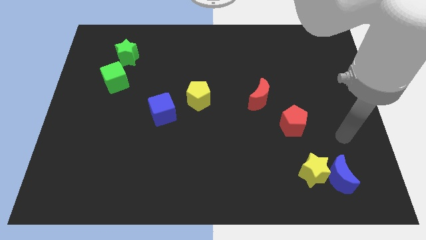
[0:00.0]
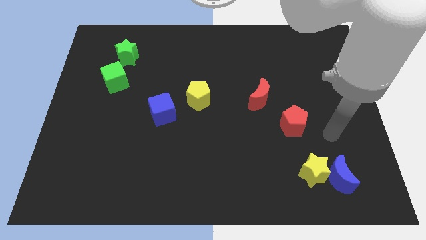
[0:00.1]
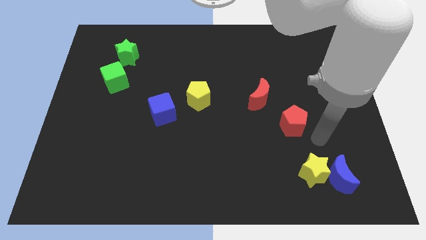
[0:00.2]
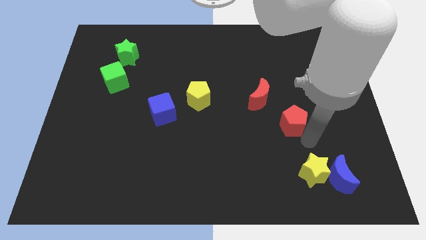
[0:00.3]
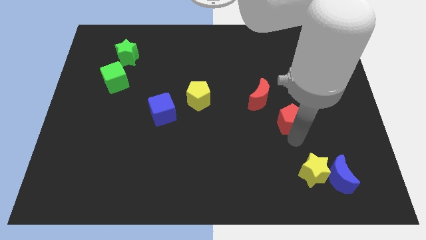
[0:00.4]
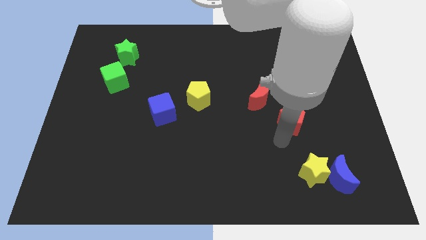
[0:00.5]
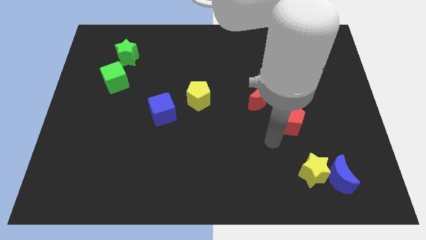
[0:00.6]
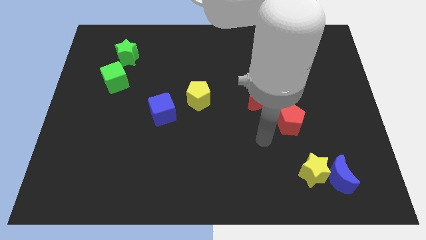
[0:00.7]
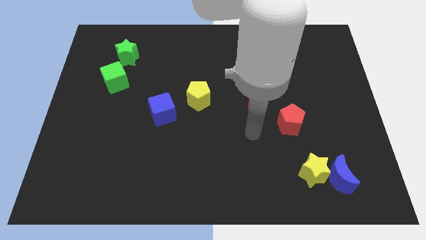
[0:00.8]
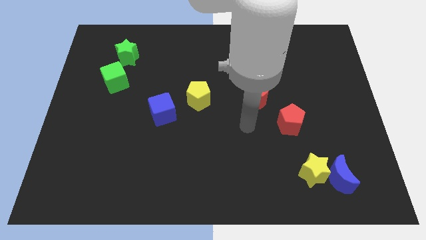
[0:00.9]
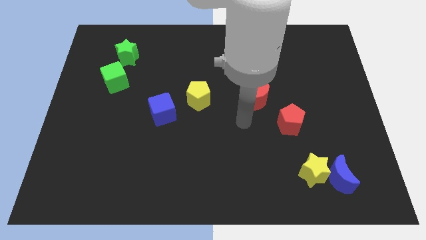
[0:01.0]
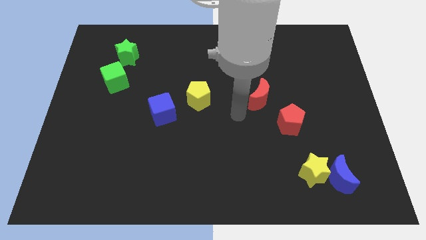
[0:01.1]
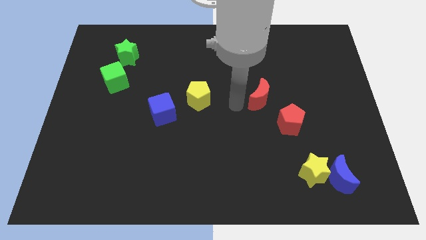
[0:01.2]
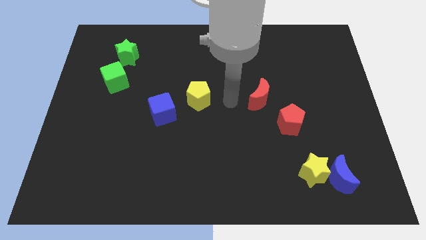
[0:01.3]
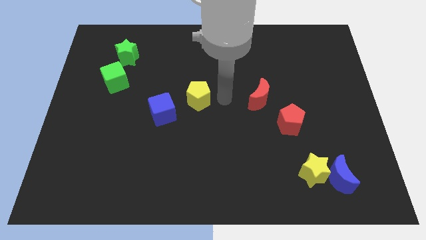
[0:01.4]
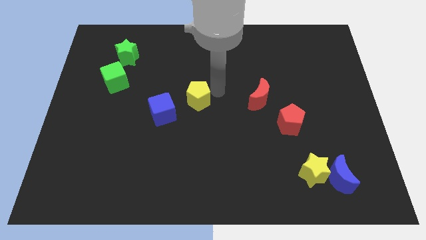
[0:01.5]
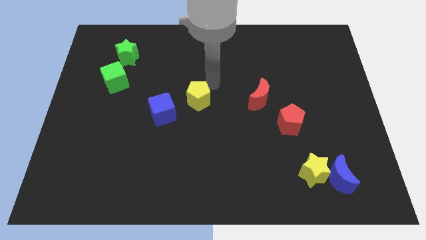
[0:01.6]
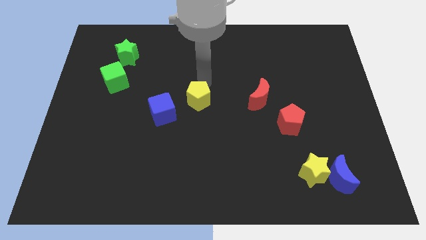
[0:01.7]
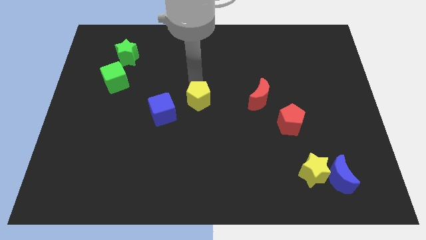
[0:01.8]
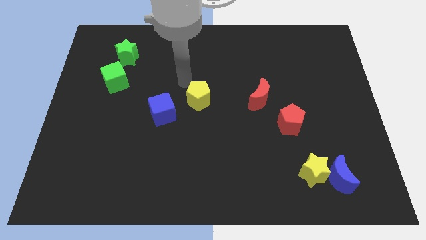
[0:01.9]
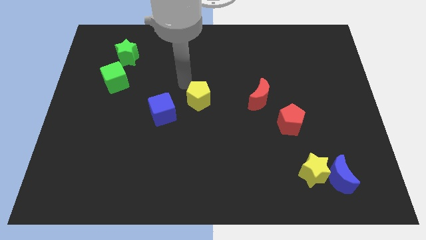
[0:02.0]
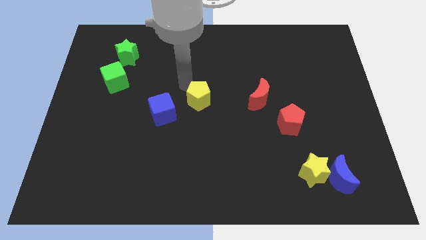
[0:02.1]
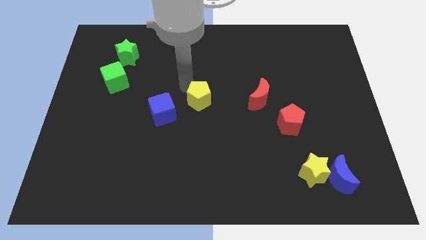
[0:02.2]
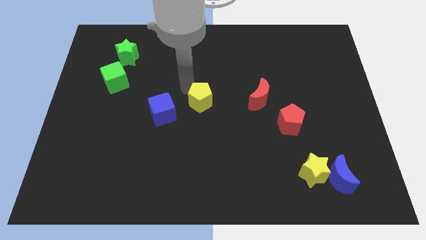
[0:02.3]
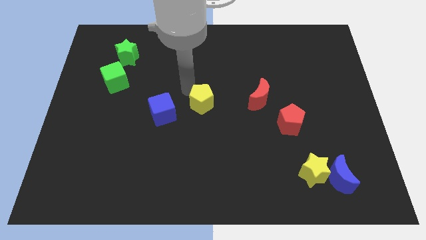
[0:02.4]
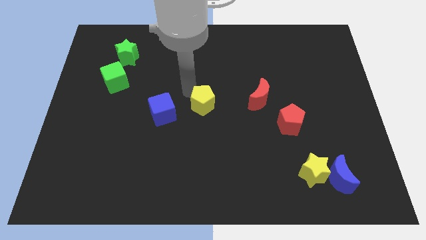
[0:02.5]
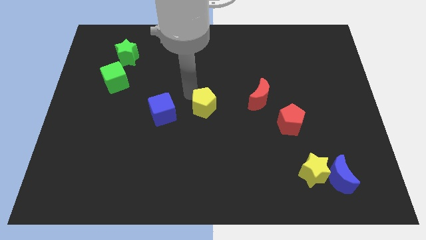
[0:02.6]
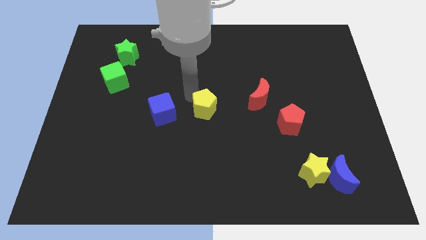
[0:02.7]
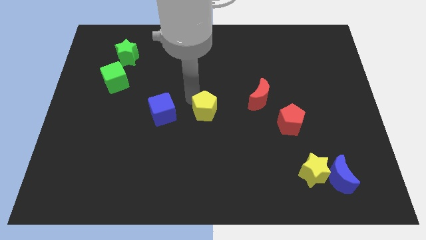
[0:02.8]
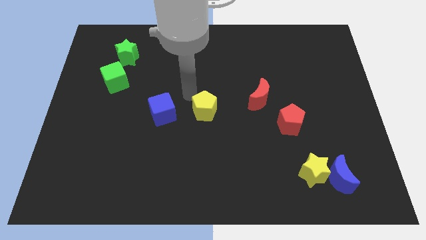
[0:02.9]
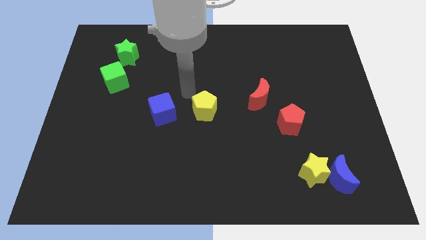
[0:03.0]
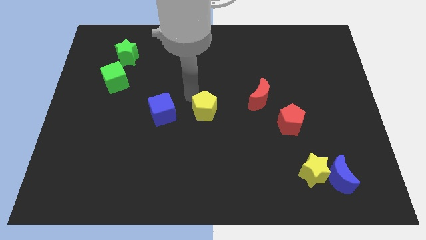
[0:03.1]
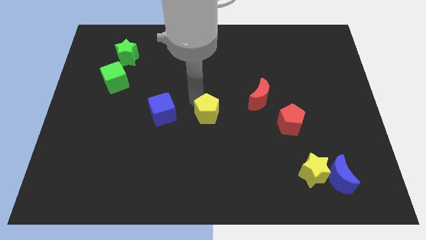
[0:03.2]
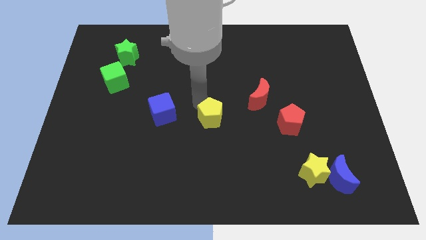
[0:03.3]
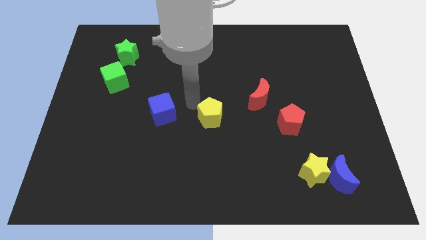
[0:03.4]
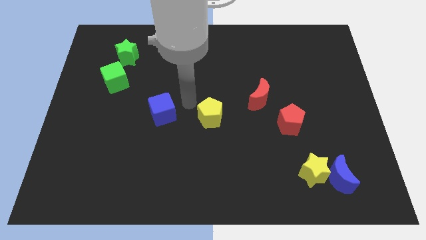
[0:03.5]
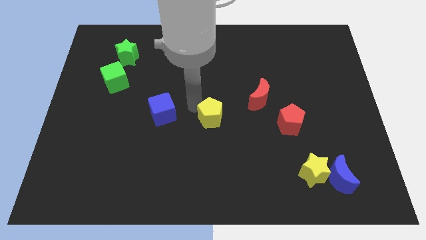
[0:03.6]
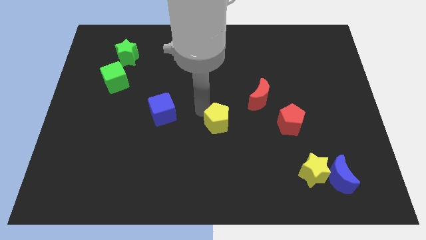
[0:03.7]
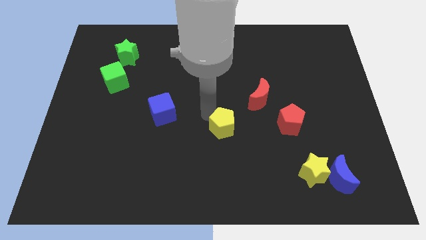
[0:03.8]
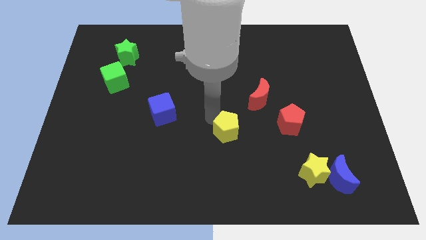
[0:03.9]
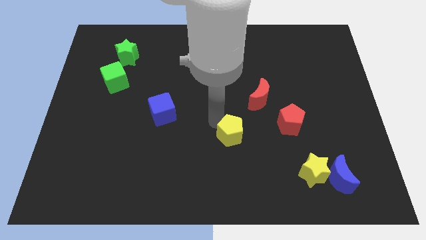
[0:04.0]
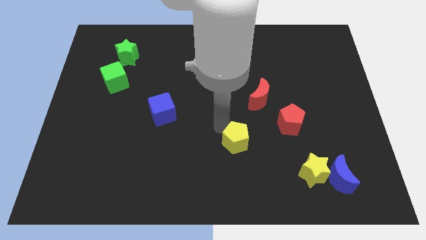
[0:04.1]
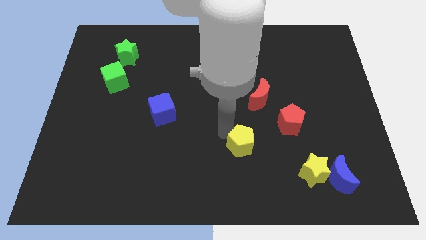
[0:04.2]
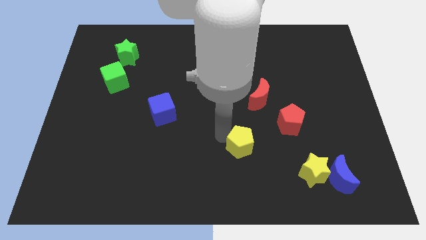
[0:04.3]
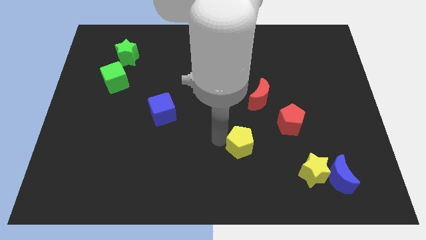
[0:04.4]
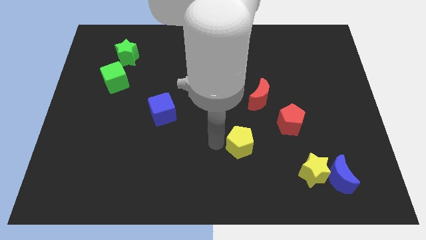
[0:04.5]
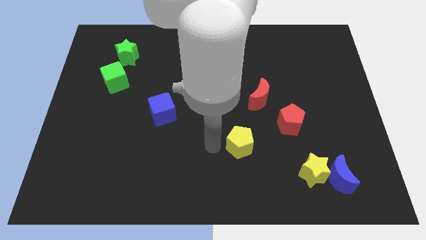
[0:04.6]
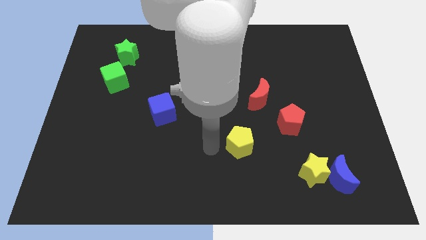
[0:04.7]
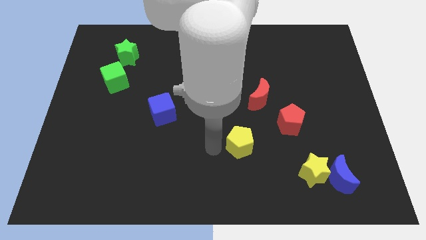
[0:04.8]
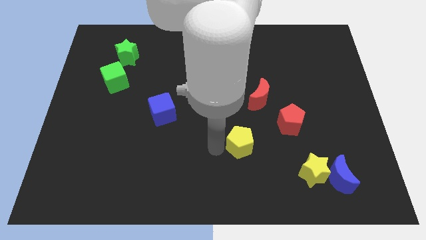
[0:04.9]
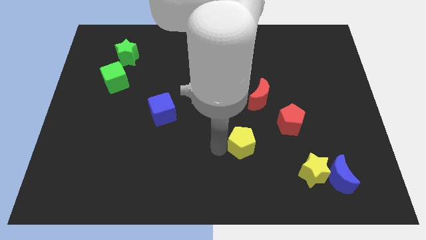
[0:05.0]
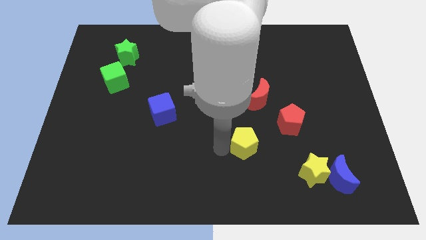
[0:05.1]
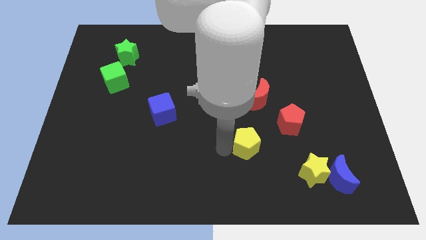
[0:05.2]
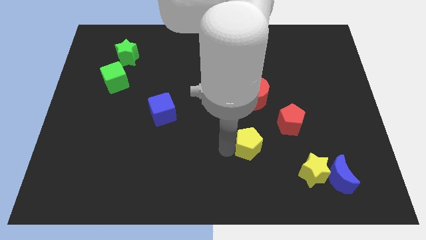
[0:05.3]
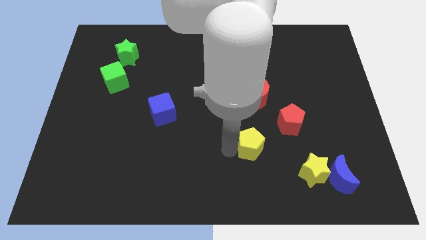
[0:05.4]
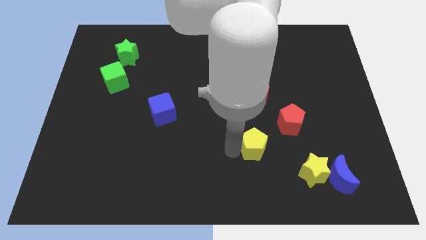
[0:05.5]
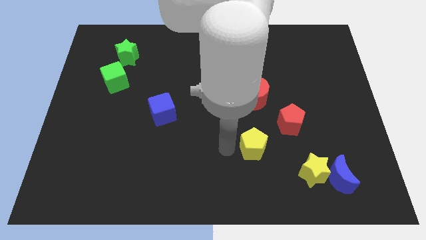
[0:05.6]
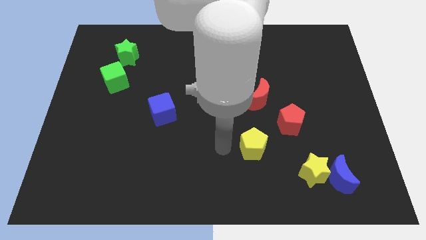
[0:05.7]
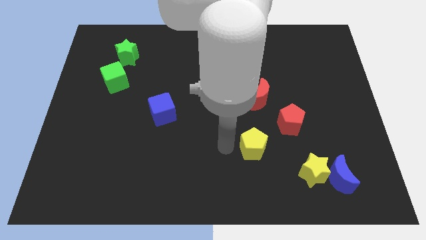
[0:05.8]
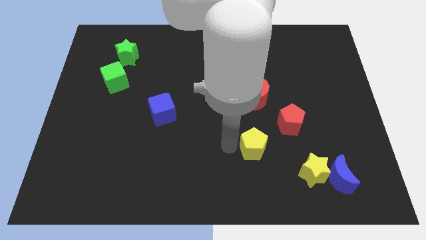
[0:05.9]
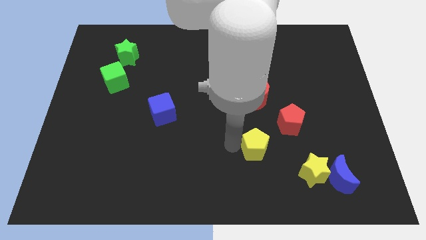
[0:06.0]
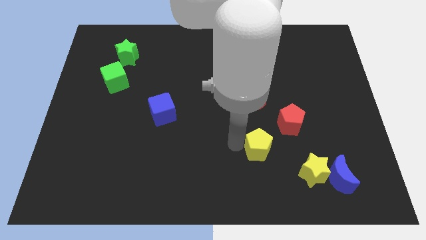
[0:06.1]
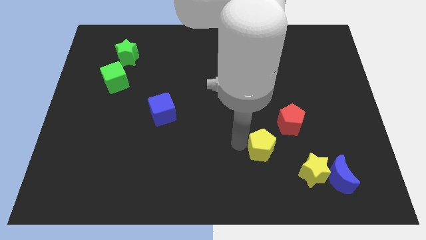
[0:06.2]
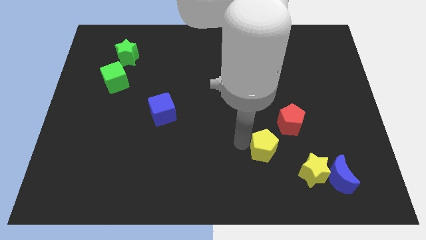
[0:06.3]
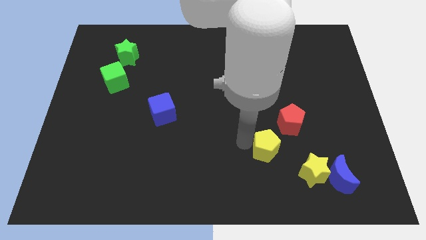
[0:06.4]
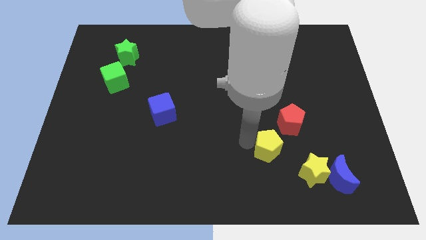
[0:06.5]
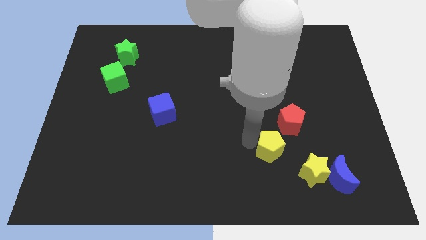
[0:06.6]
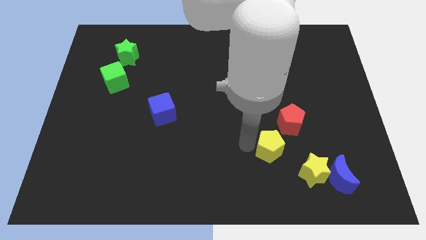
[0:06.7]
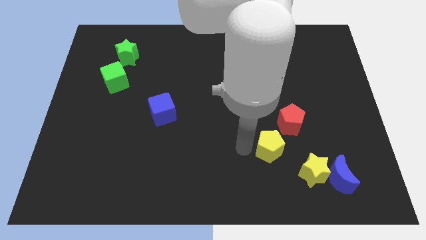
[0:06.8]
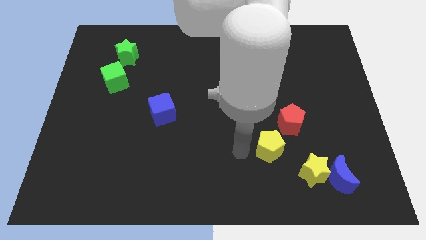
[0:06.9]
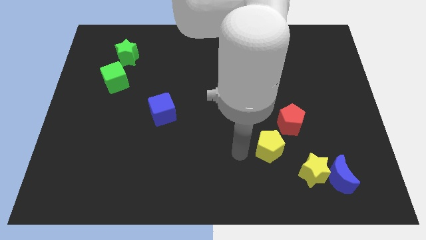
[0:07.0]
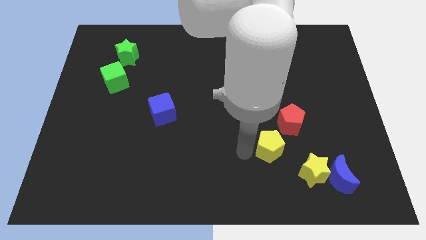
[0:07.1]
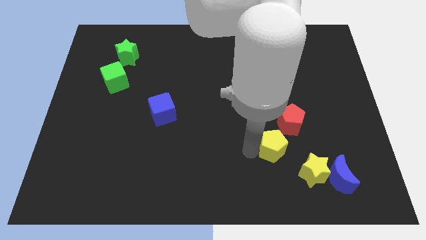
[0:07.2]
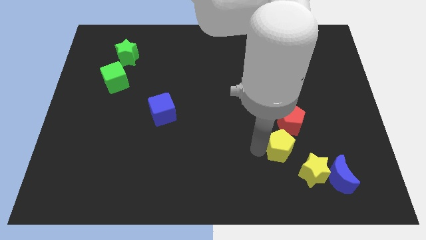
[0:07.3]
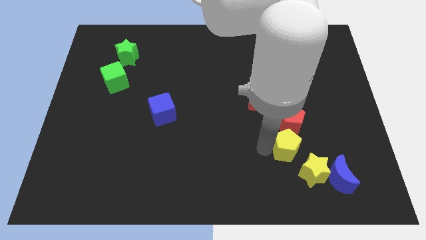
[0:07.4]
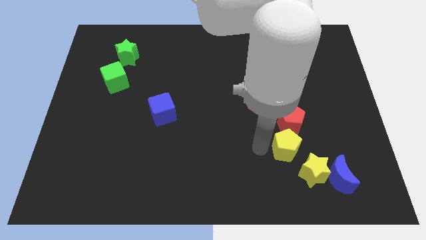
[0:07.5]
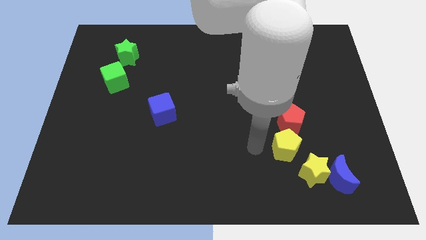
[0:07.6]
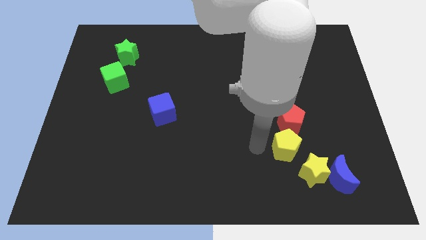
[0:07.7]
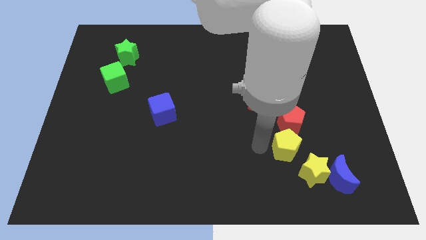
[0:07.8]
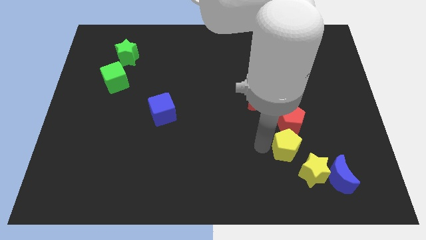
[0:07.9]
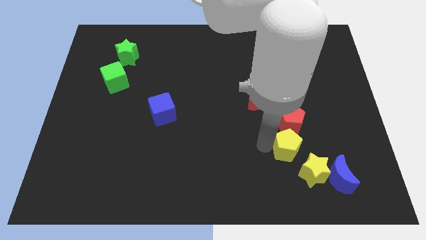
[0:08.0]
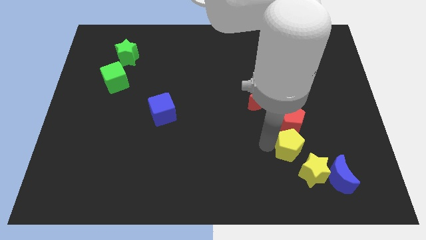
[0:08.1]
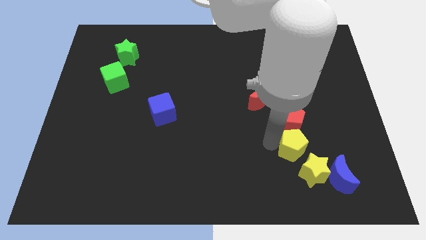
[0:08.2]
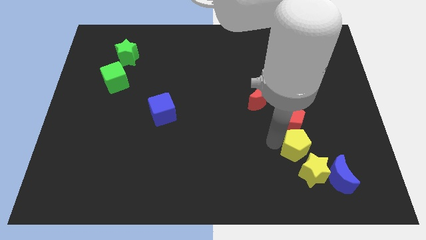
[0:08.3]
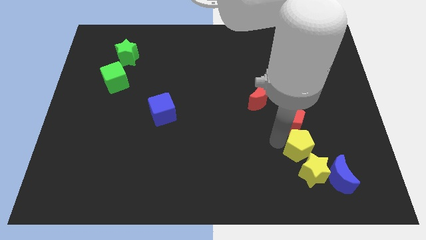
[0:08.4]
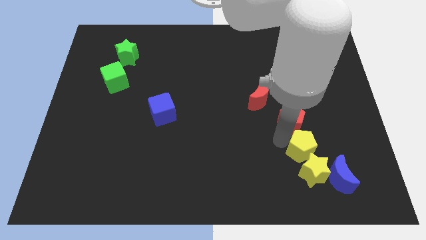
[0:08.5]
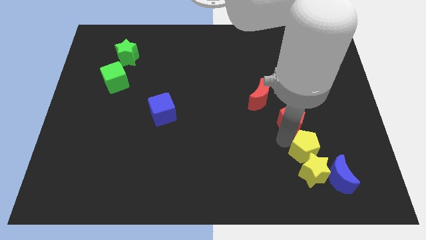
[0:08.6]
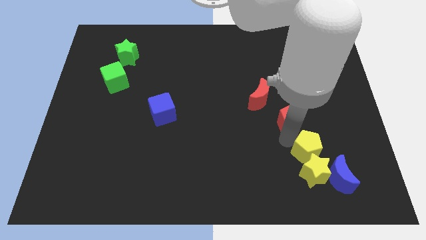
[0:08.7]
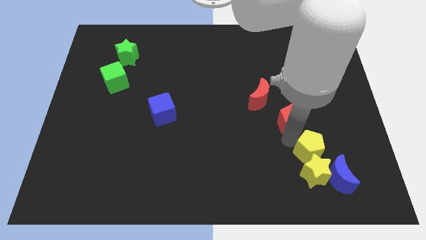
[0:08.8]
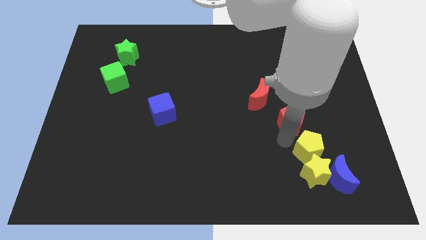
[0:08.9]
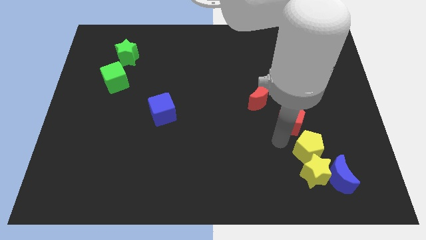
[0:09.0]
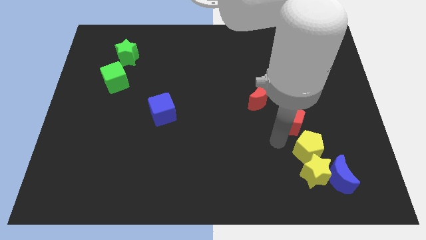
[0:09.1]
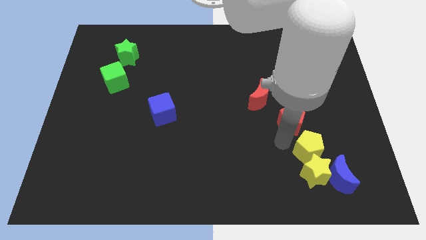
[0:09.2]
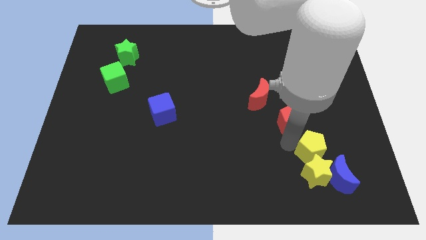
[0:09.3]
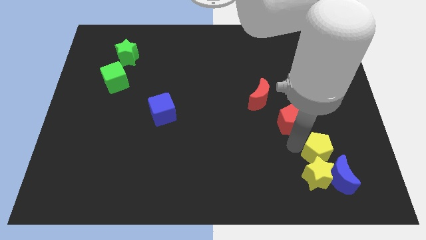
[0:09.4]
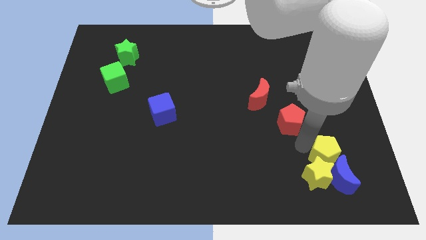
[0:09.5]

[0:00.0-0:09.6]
move the yellow pentagon towards the blue moon
